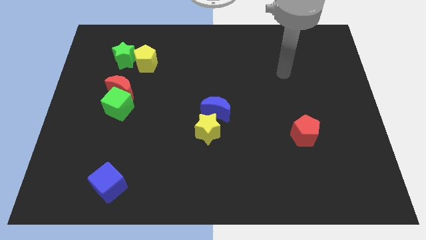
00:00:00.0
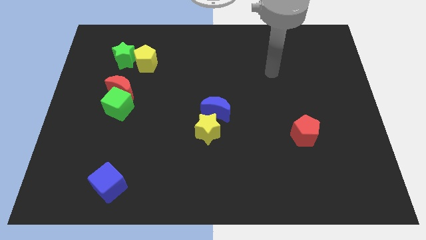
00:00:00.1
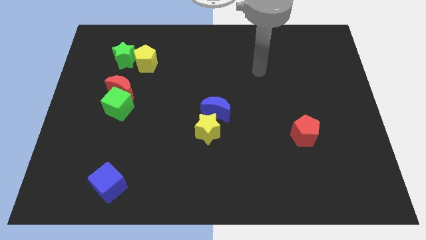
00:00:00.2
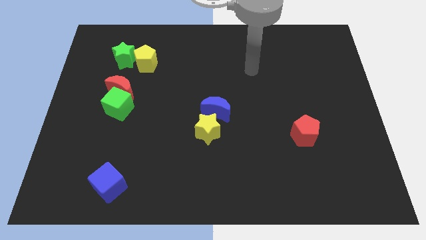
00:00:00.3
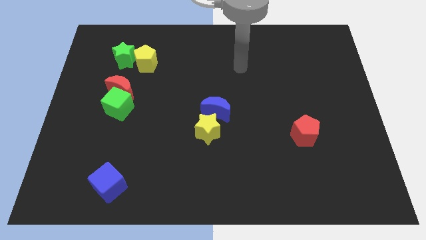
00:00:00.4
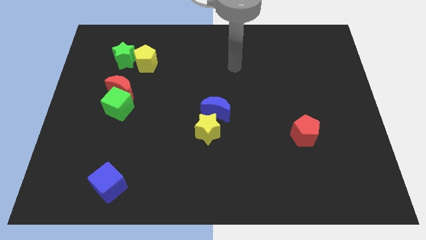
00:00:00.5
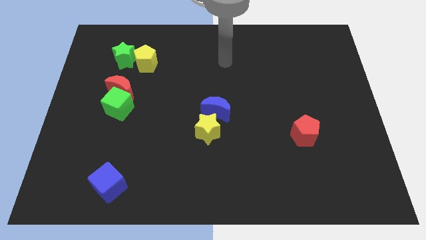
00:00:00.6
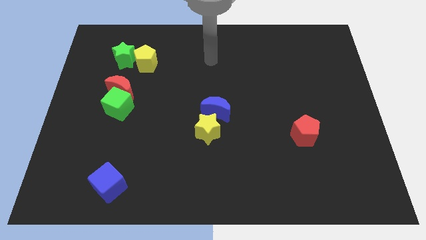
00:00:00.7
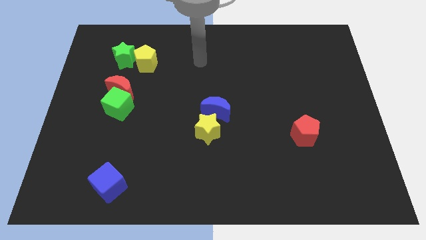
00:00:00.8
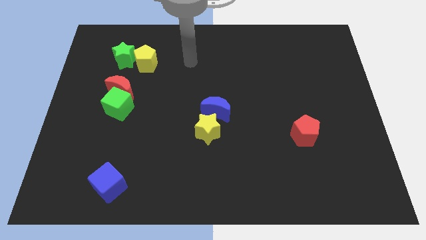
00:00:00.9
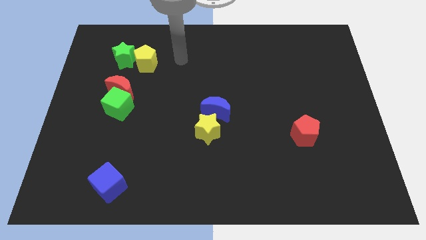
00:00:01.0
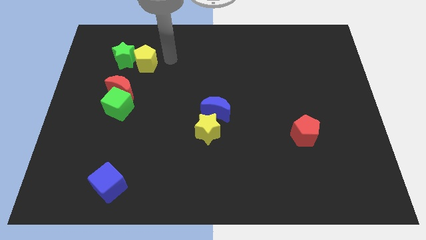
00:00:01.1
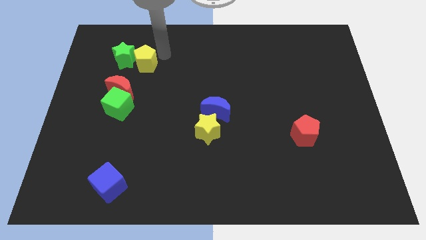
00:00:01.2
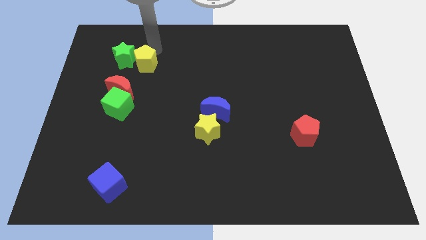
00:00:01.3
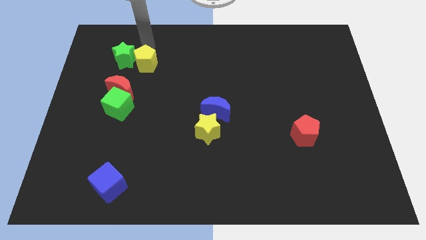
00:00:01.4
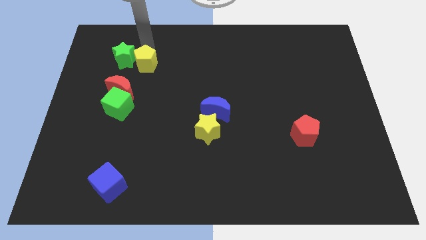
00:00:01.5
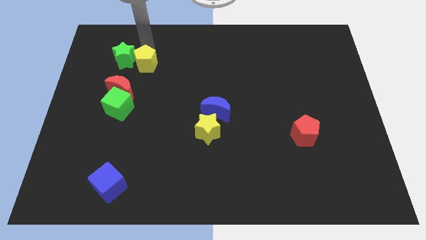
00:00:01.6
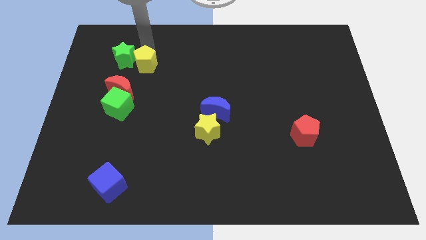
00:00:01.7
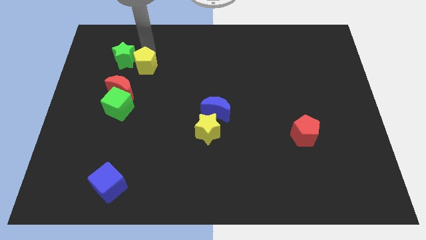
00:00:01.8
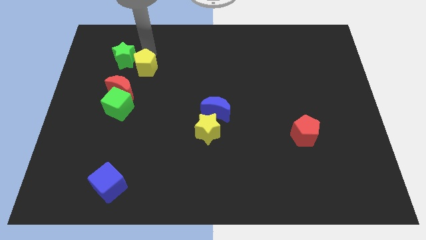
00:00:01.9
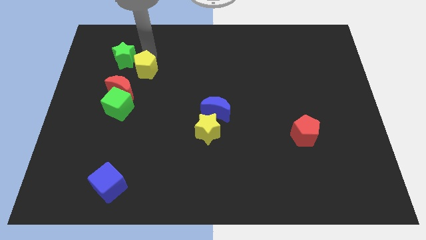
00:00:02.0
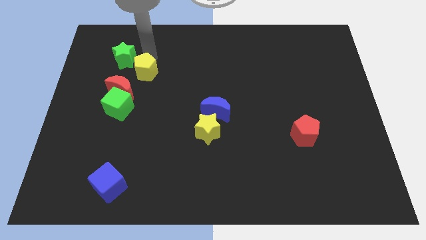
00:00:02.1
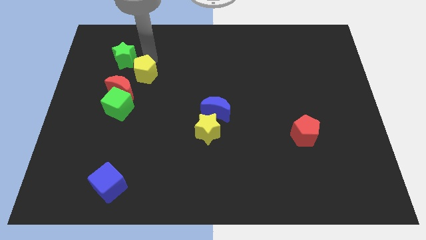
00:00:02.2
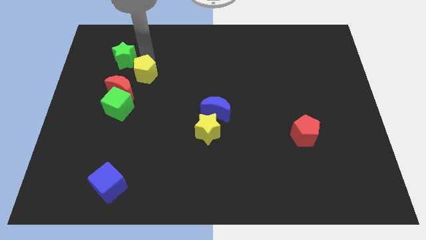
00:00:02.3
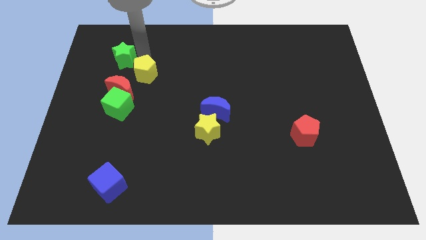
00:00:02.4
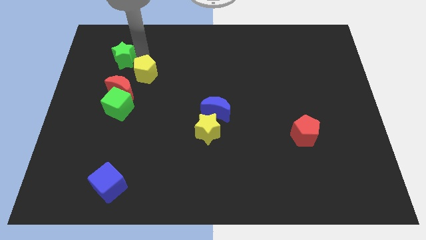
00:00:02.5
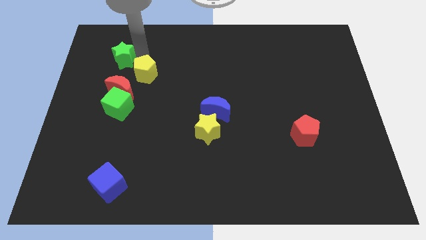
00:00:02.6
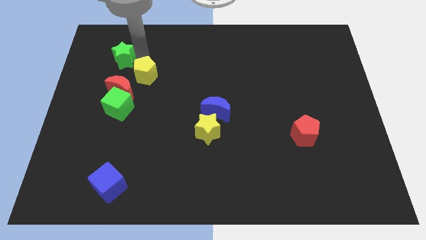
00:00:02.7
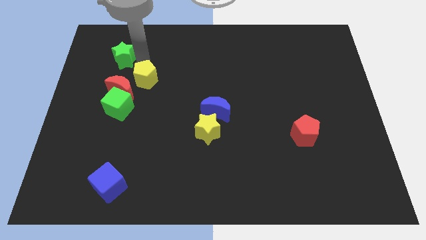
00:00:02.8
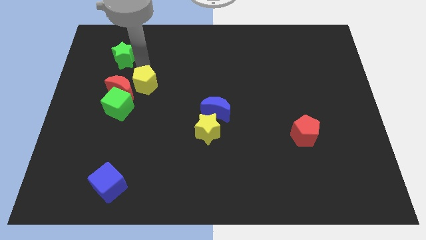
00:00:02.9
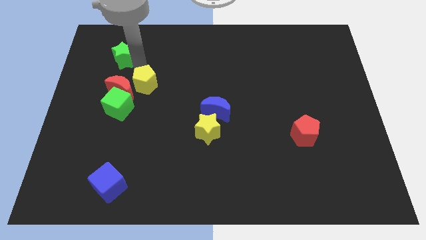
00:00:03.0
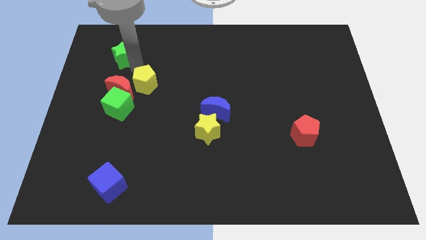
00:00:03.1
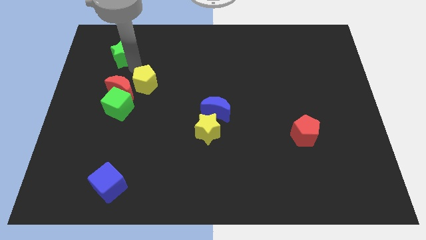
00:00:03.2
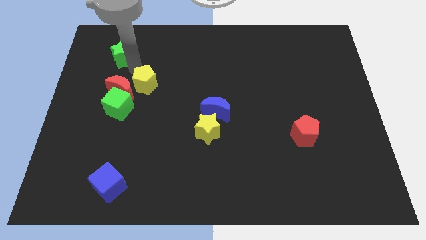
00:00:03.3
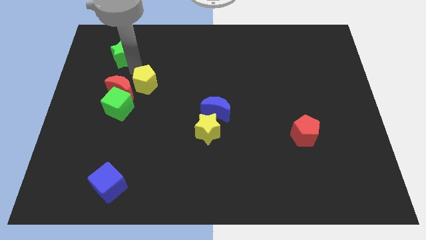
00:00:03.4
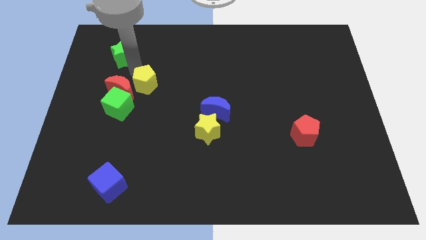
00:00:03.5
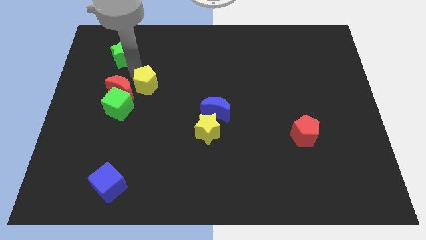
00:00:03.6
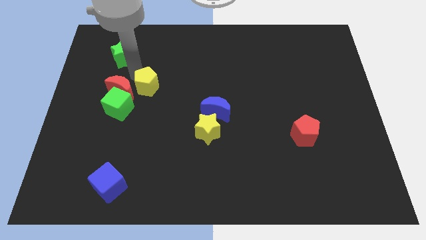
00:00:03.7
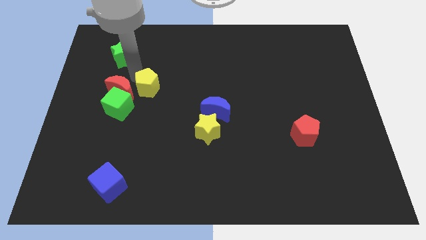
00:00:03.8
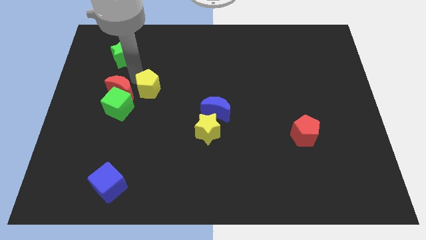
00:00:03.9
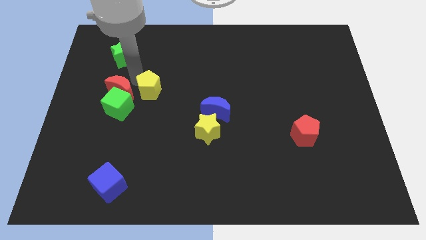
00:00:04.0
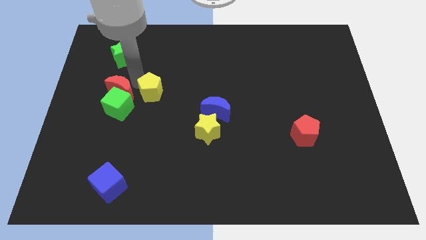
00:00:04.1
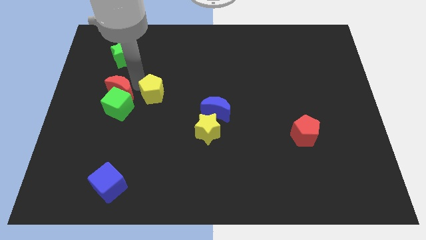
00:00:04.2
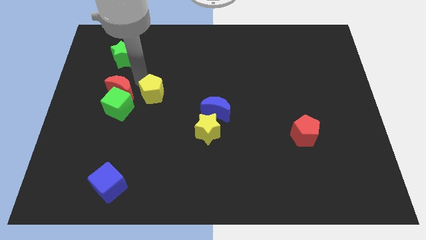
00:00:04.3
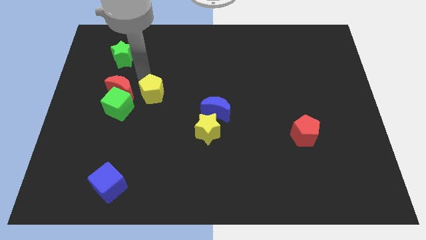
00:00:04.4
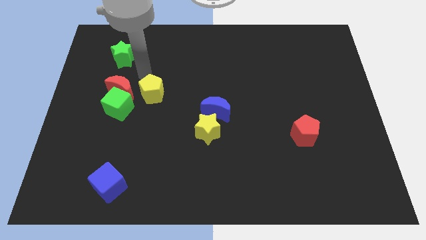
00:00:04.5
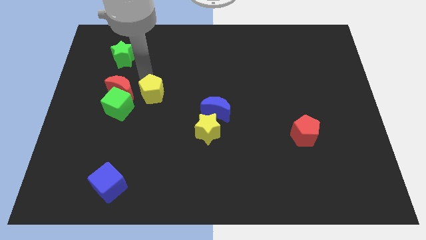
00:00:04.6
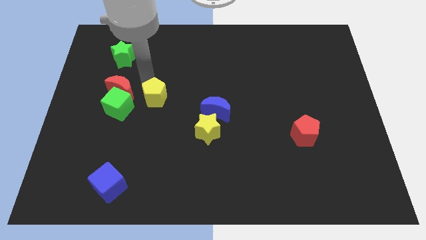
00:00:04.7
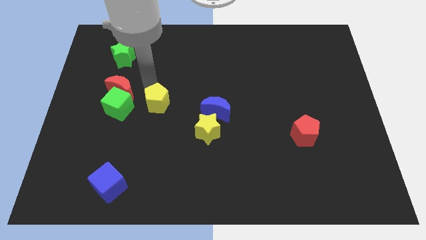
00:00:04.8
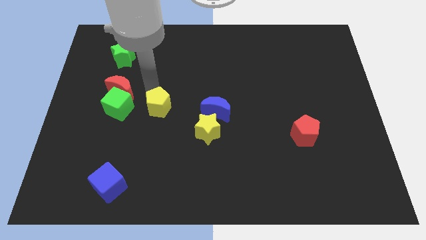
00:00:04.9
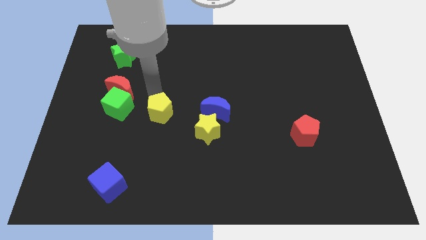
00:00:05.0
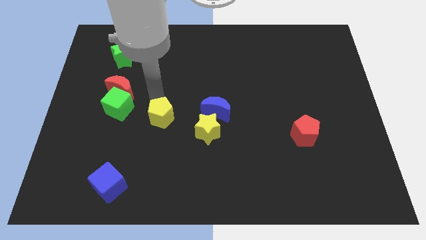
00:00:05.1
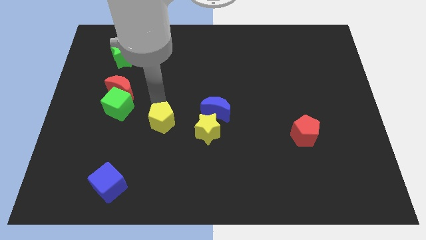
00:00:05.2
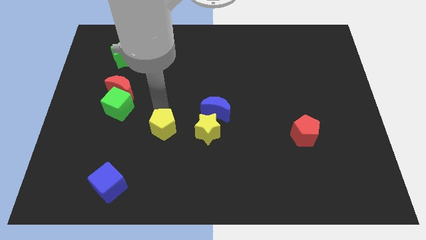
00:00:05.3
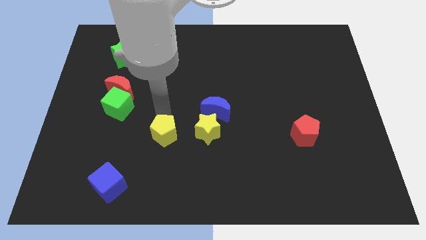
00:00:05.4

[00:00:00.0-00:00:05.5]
push the yellow pentagon downwards

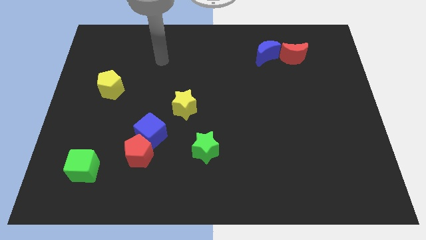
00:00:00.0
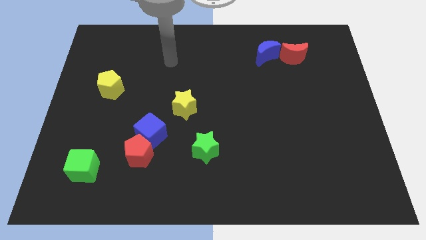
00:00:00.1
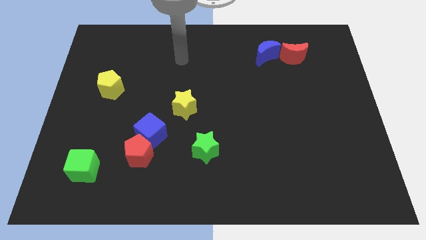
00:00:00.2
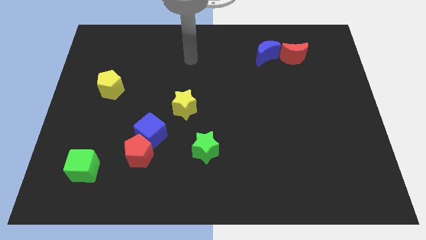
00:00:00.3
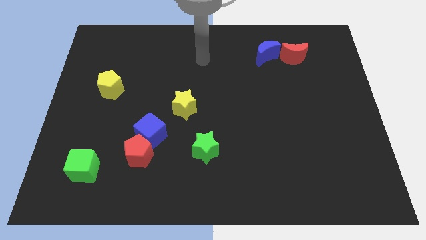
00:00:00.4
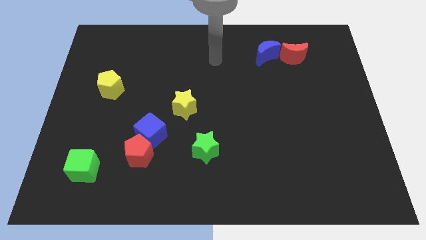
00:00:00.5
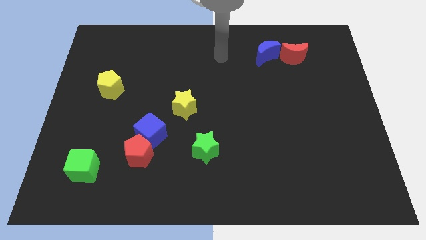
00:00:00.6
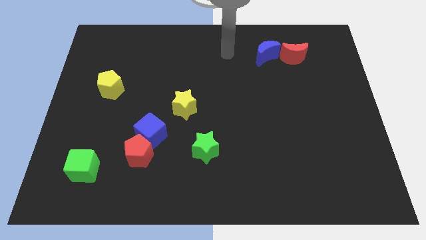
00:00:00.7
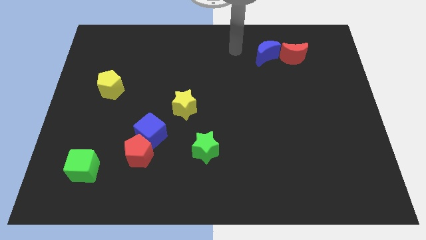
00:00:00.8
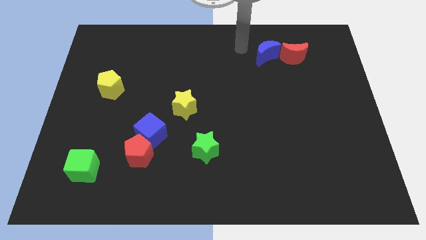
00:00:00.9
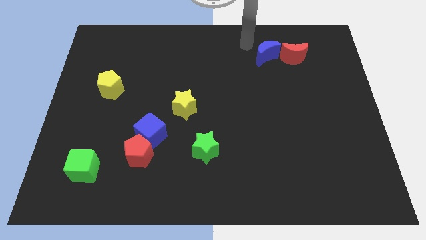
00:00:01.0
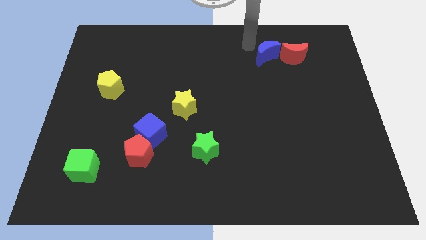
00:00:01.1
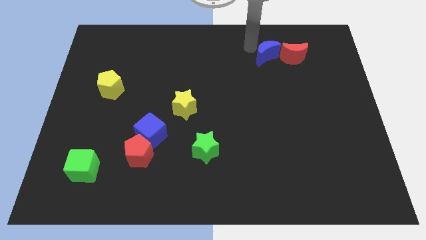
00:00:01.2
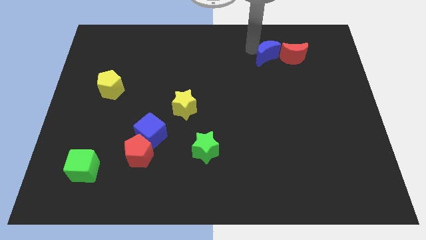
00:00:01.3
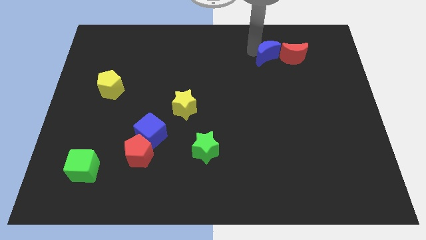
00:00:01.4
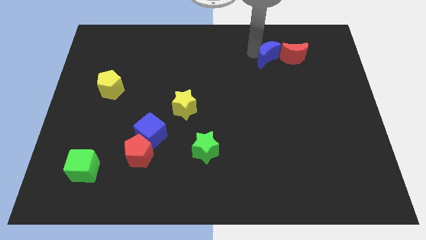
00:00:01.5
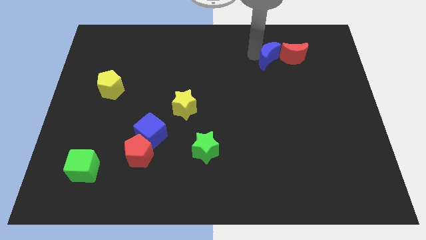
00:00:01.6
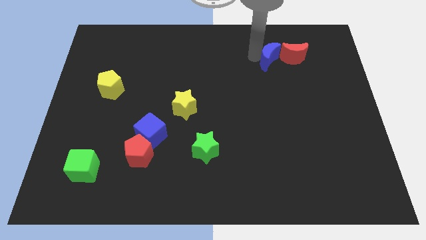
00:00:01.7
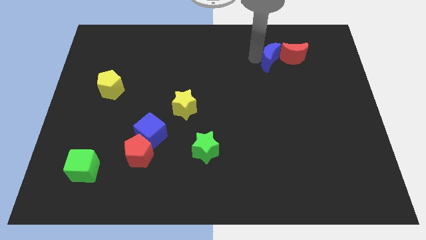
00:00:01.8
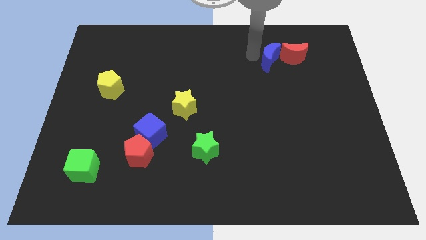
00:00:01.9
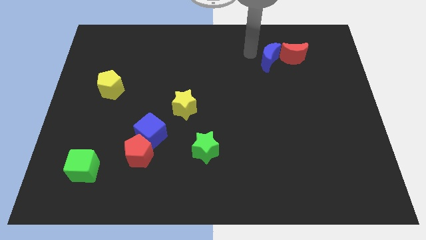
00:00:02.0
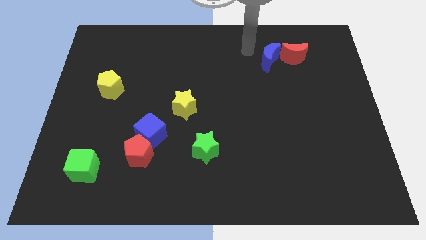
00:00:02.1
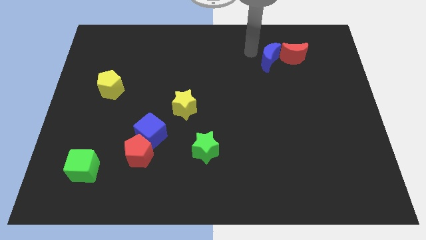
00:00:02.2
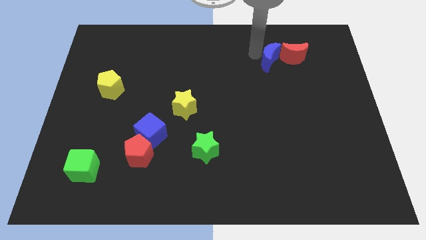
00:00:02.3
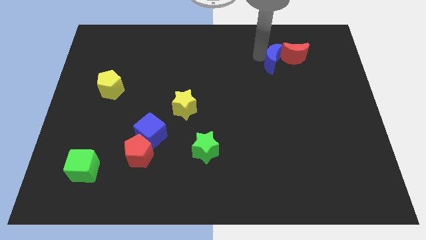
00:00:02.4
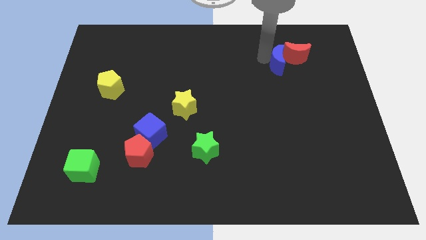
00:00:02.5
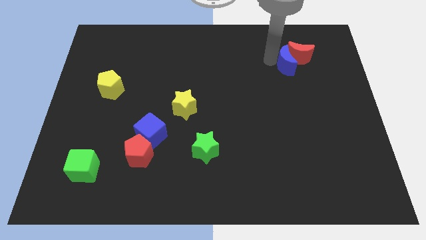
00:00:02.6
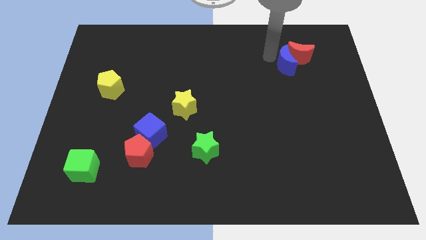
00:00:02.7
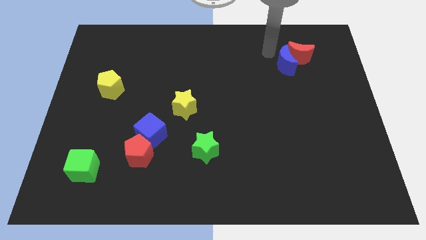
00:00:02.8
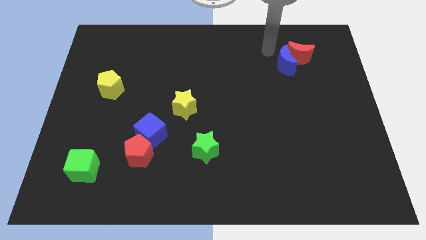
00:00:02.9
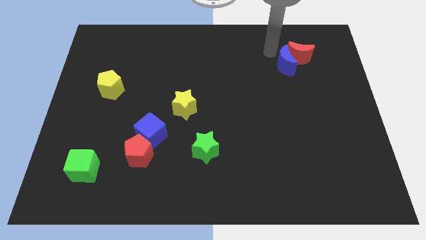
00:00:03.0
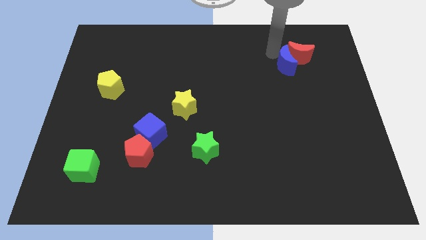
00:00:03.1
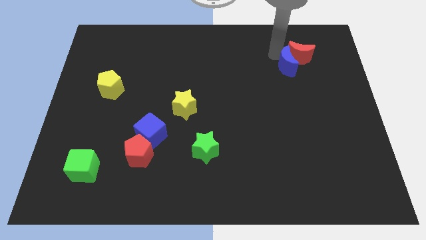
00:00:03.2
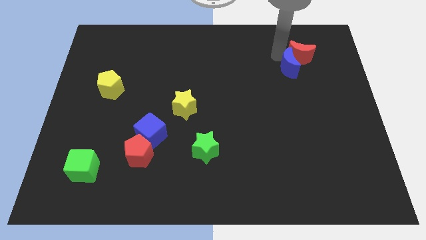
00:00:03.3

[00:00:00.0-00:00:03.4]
slightly move the blue moon down and then right
